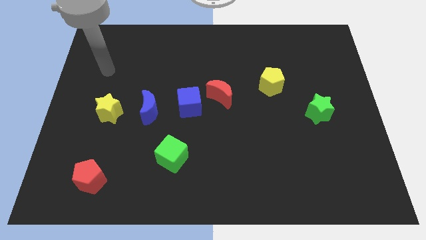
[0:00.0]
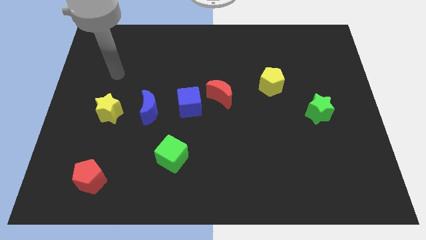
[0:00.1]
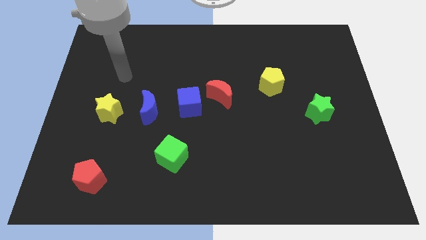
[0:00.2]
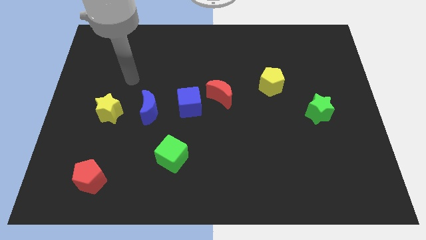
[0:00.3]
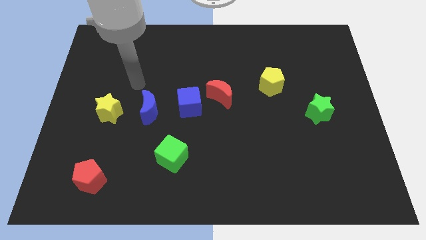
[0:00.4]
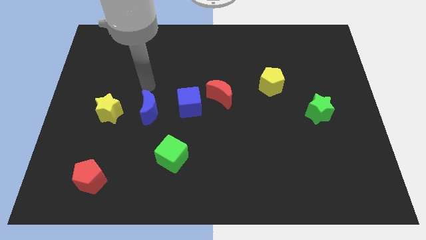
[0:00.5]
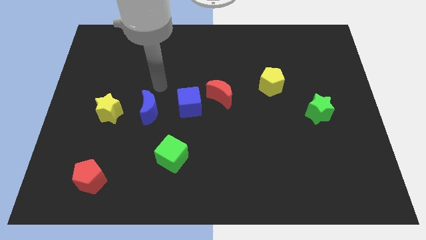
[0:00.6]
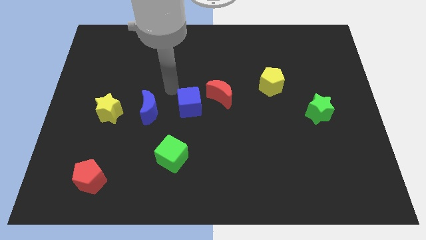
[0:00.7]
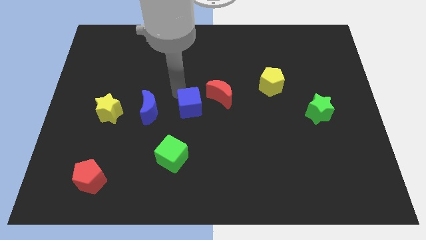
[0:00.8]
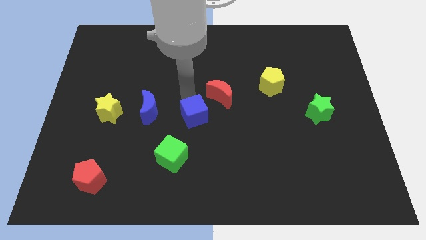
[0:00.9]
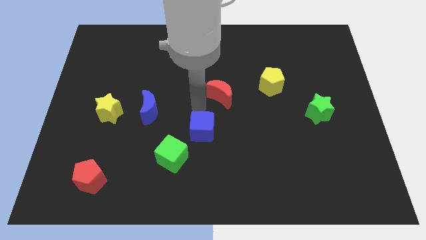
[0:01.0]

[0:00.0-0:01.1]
move the red moon away from the blue cube

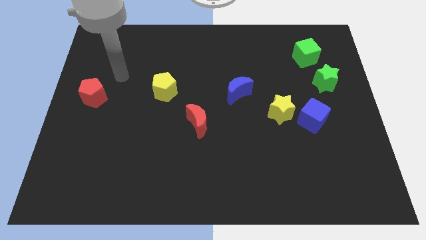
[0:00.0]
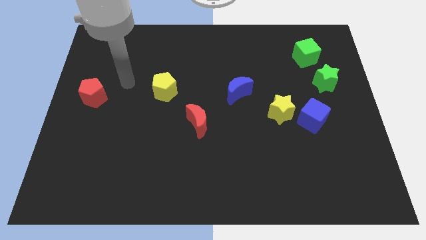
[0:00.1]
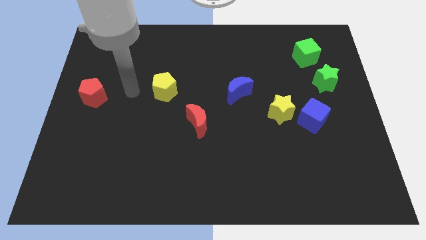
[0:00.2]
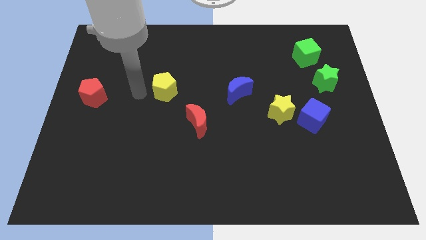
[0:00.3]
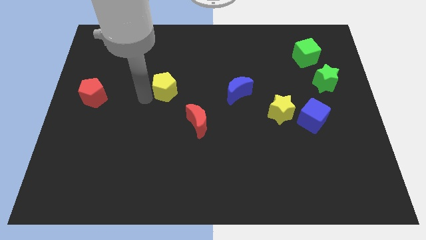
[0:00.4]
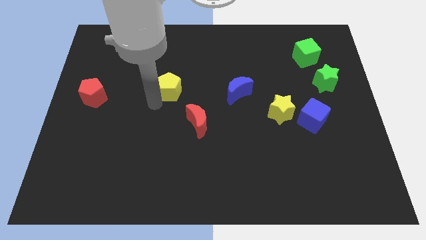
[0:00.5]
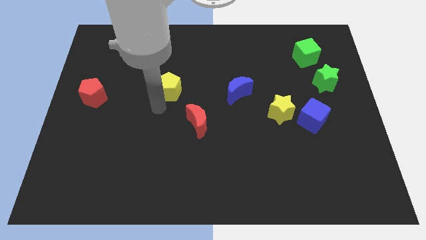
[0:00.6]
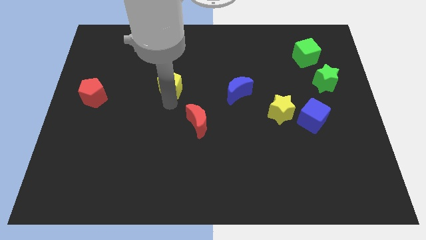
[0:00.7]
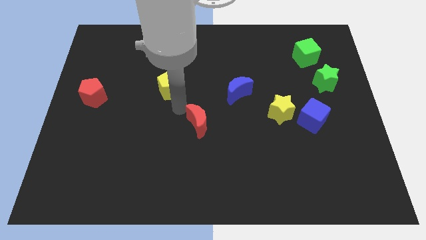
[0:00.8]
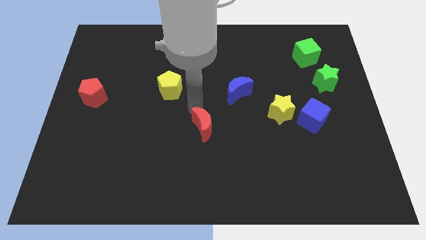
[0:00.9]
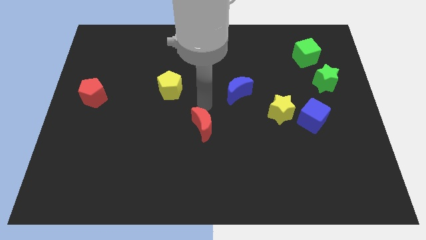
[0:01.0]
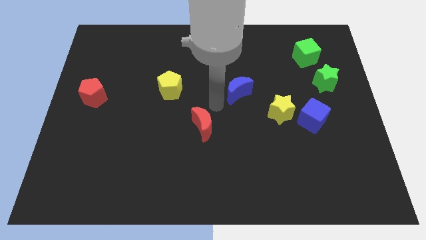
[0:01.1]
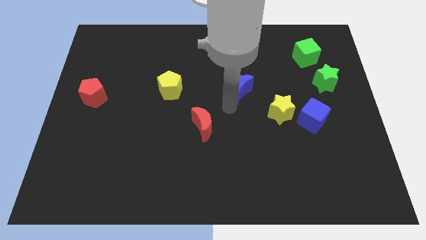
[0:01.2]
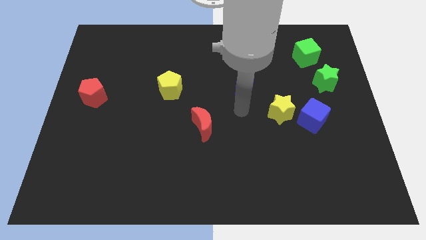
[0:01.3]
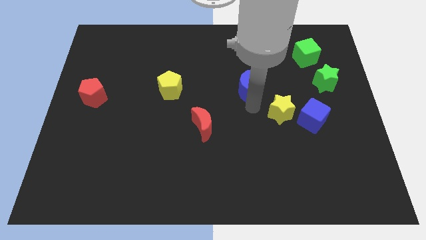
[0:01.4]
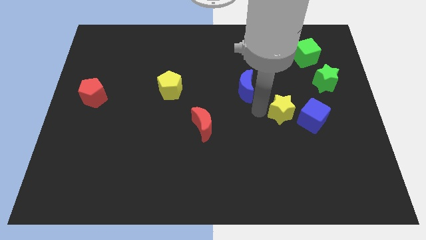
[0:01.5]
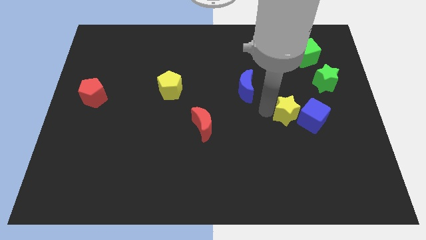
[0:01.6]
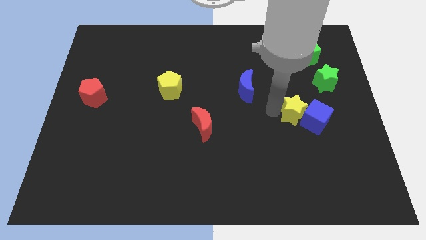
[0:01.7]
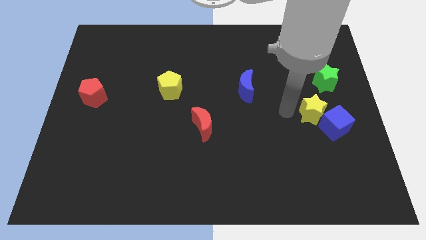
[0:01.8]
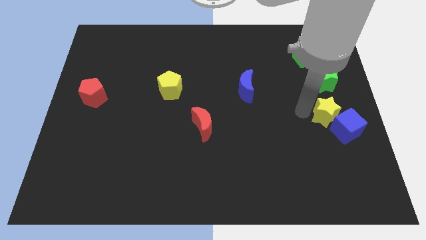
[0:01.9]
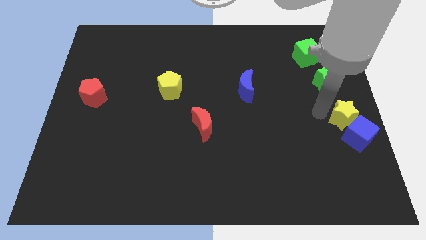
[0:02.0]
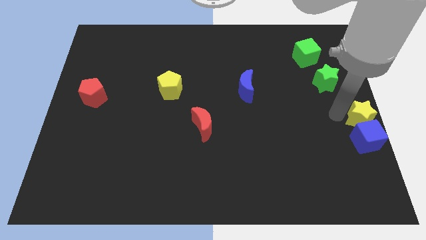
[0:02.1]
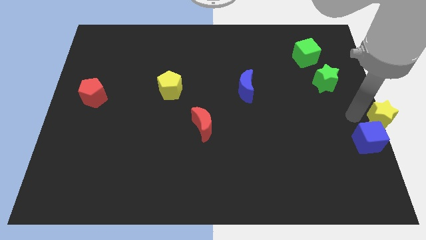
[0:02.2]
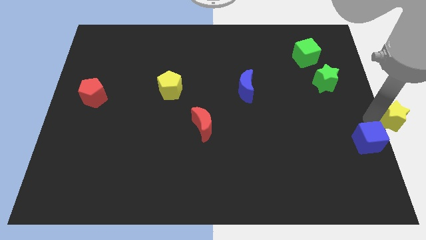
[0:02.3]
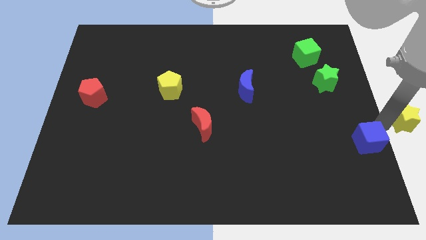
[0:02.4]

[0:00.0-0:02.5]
pull the blue cube apart from the yellow star

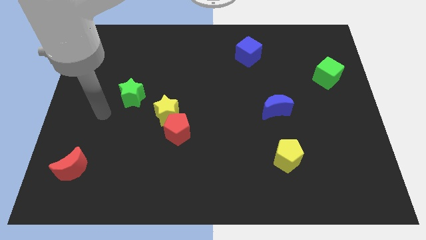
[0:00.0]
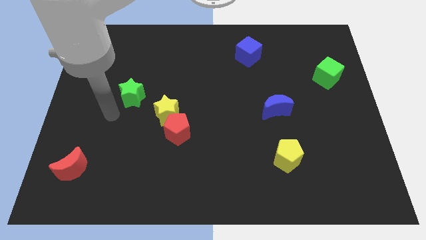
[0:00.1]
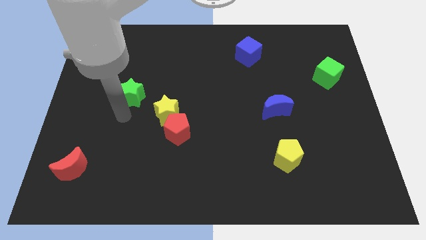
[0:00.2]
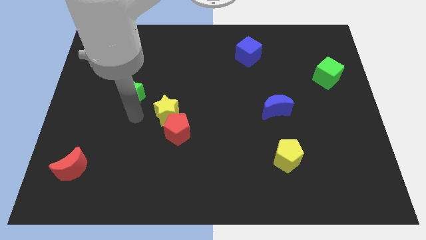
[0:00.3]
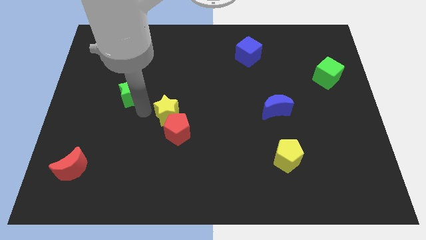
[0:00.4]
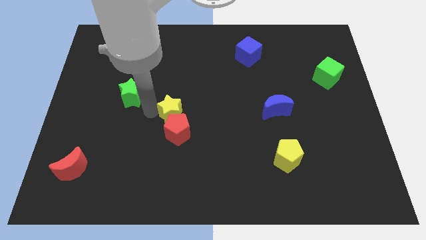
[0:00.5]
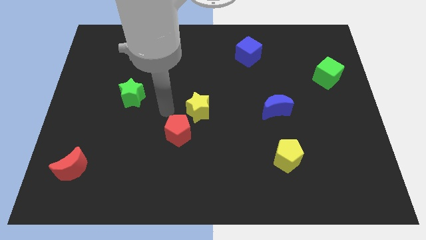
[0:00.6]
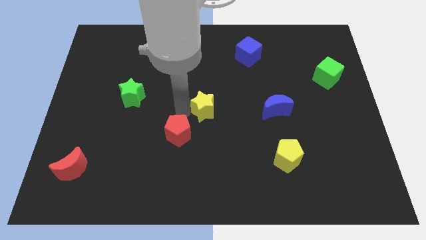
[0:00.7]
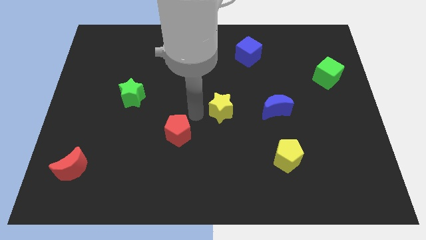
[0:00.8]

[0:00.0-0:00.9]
move the red pentagon away from the yellow star

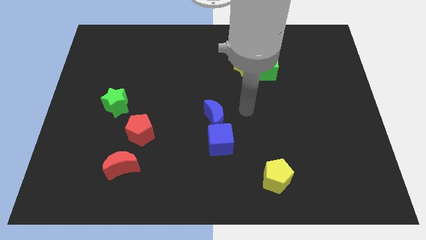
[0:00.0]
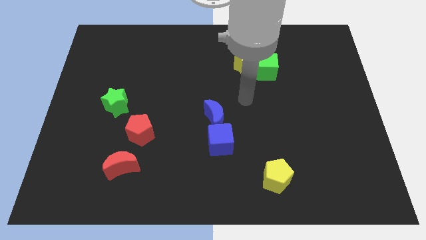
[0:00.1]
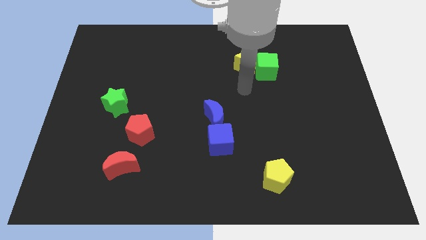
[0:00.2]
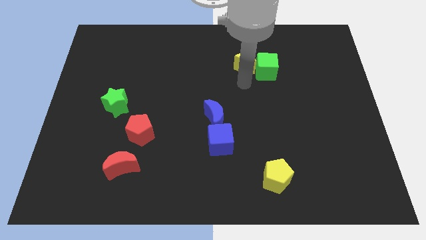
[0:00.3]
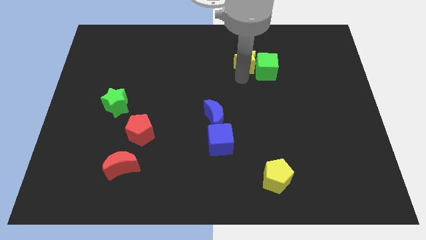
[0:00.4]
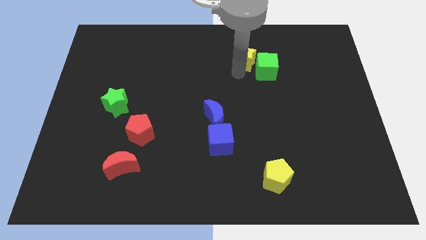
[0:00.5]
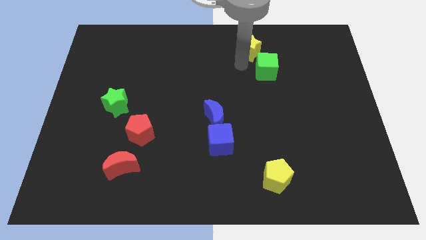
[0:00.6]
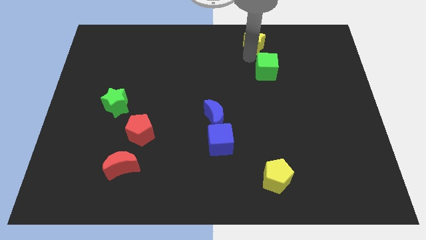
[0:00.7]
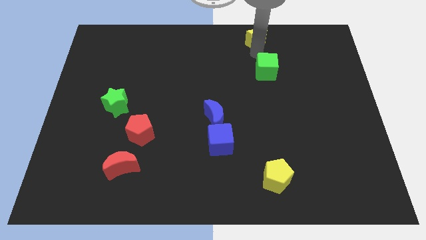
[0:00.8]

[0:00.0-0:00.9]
move the green cube away from the yellow star

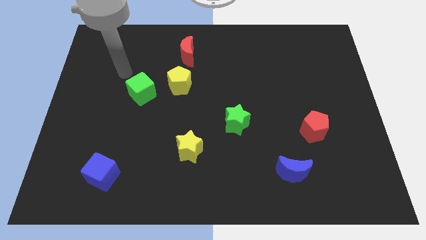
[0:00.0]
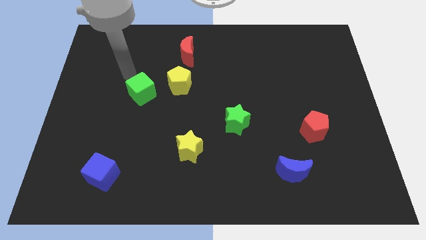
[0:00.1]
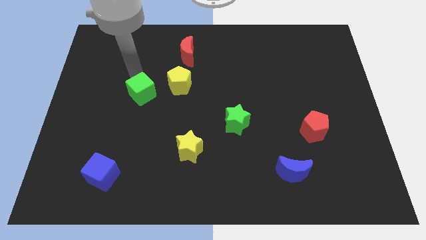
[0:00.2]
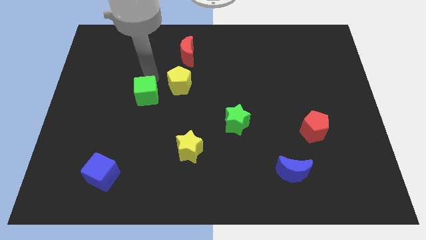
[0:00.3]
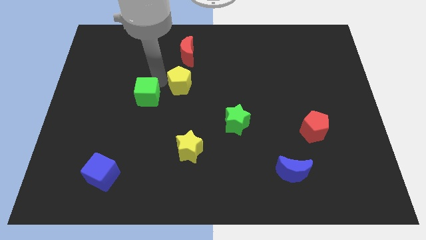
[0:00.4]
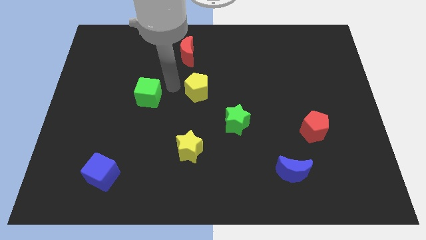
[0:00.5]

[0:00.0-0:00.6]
separate the green cube from the yellow pentagon

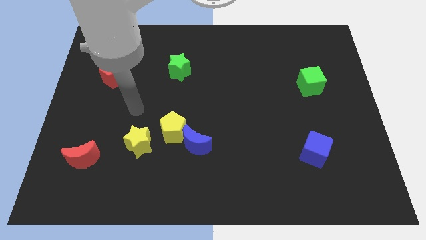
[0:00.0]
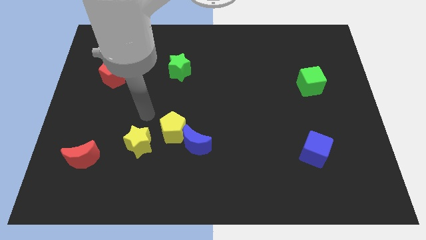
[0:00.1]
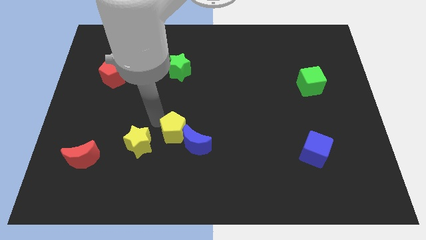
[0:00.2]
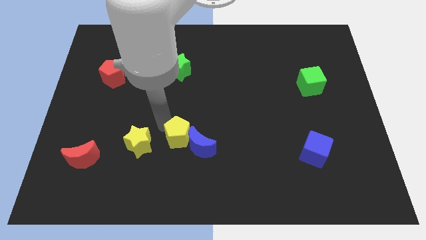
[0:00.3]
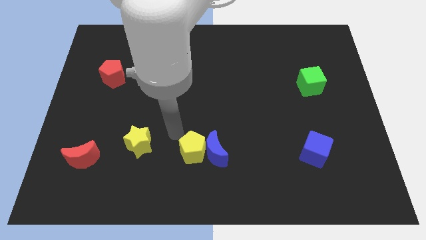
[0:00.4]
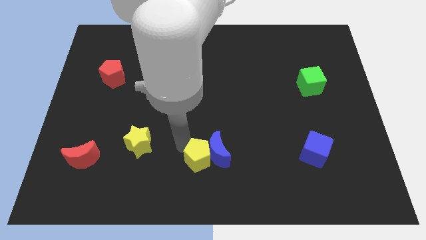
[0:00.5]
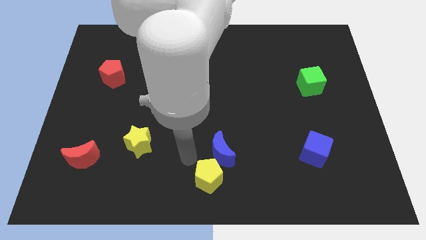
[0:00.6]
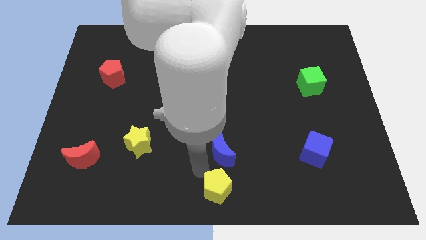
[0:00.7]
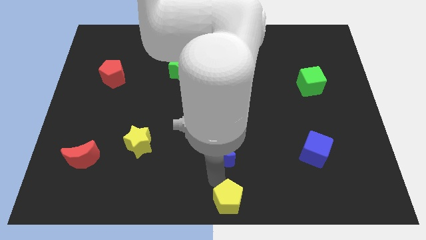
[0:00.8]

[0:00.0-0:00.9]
pull the blue moon apart from the yellow pentagon

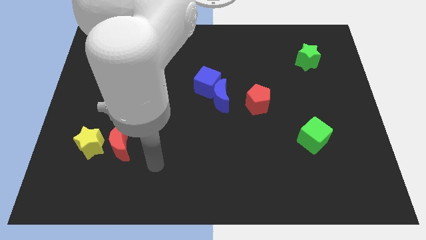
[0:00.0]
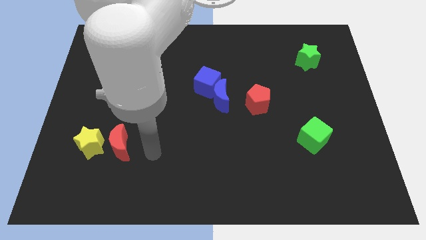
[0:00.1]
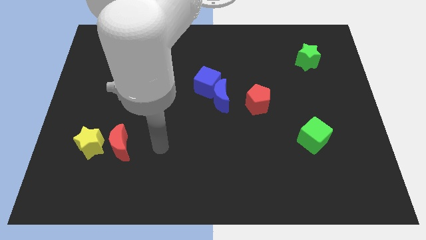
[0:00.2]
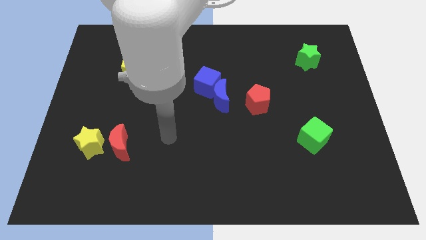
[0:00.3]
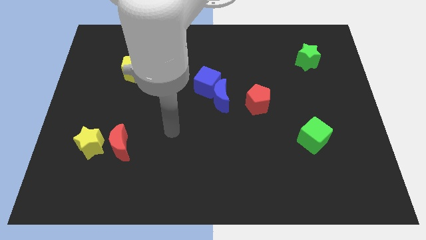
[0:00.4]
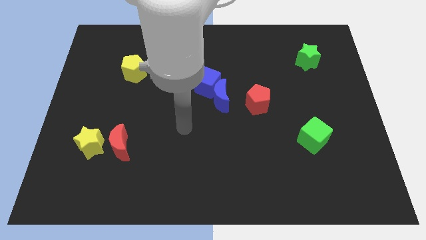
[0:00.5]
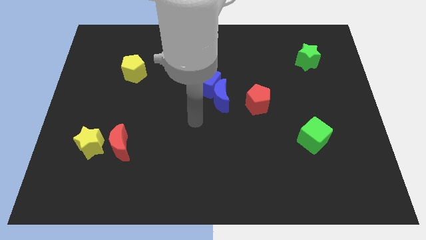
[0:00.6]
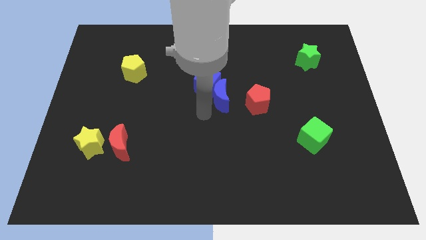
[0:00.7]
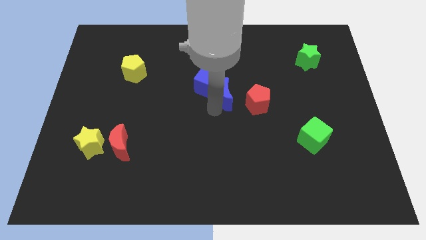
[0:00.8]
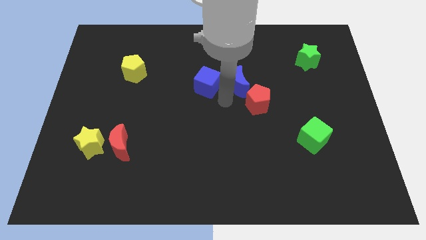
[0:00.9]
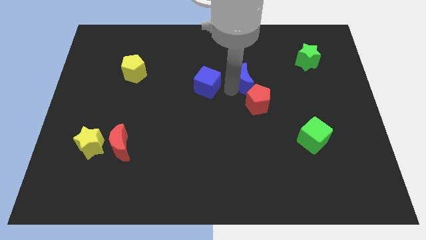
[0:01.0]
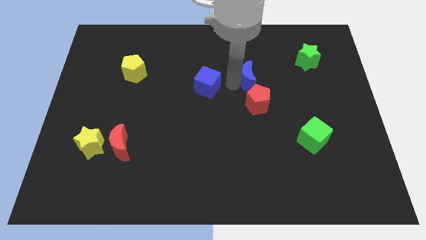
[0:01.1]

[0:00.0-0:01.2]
pull the blue cube apart from the blue moon

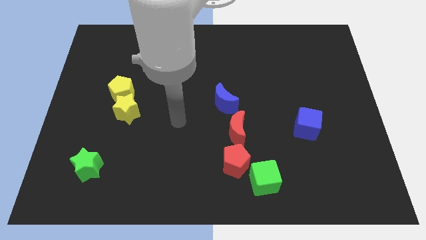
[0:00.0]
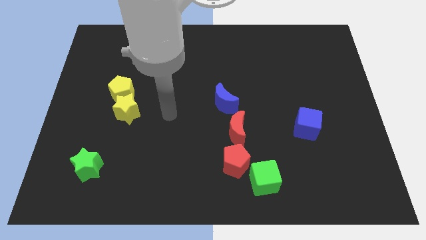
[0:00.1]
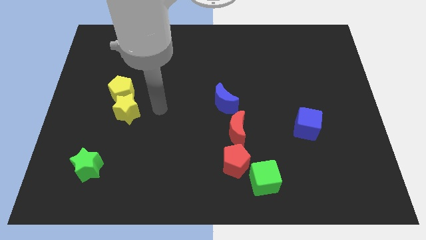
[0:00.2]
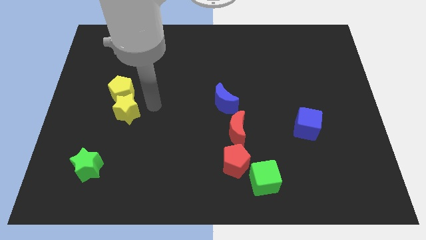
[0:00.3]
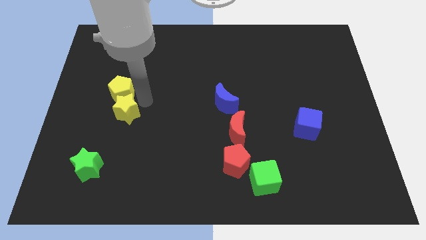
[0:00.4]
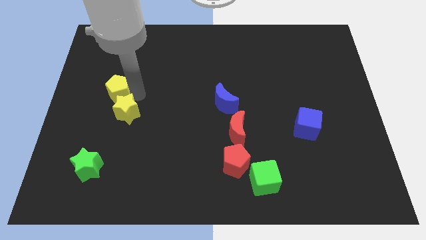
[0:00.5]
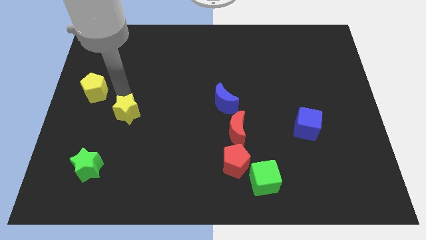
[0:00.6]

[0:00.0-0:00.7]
pull the yellow star apart from the yellow pentagon

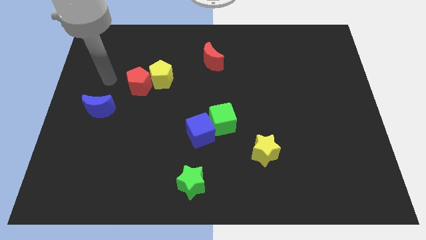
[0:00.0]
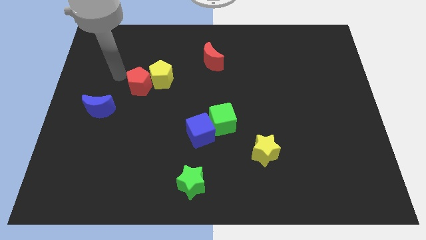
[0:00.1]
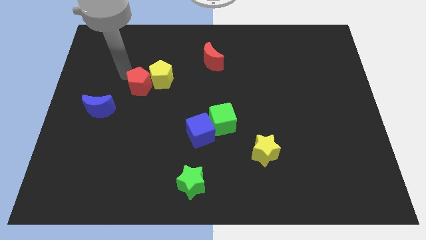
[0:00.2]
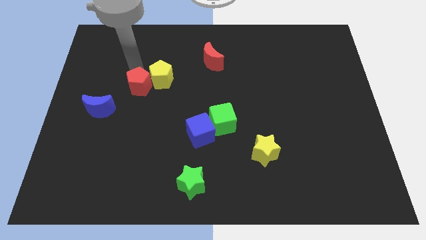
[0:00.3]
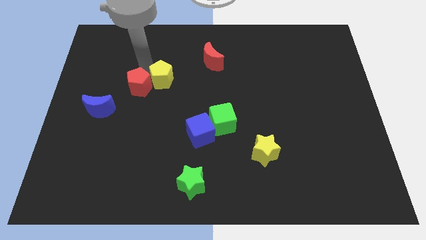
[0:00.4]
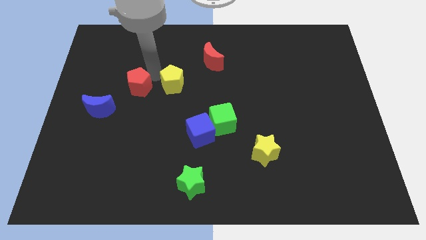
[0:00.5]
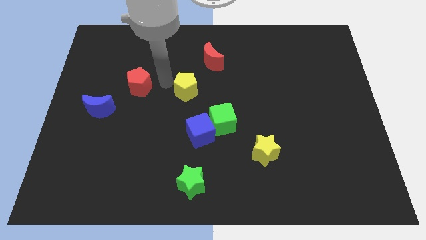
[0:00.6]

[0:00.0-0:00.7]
pull the red pentagon apart from the yellow pentagon

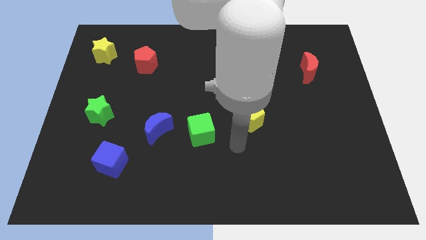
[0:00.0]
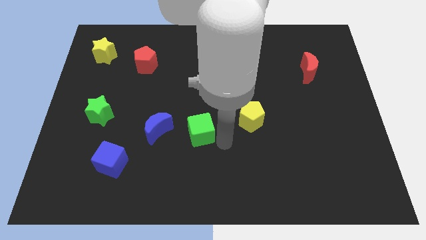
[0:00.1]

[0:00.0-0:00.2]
pull the blue moon apart from the green cube
